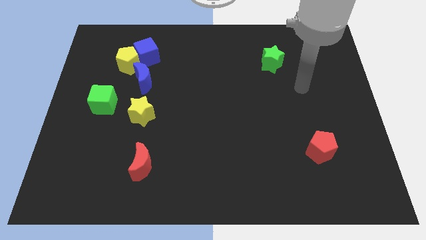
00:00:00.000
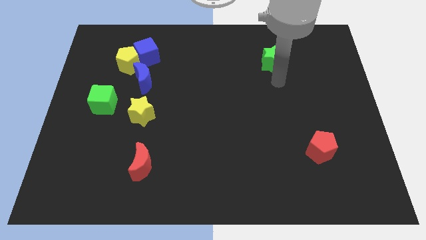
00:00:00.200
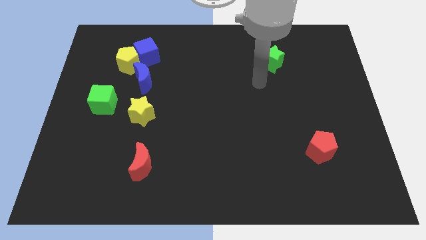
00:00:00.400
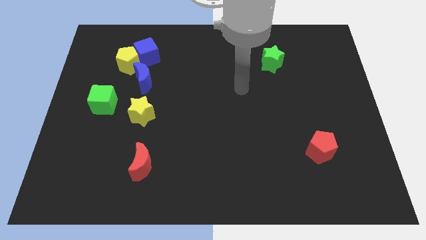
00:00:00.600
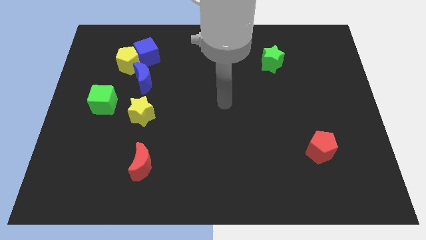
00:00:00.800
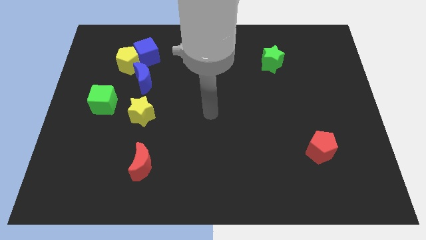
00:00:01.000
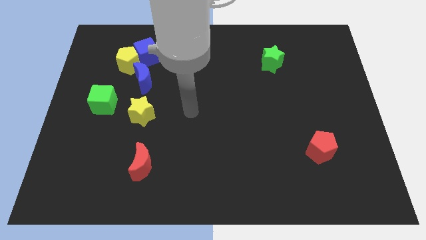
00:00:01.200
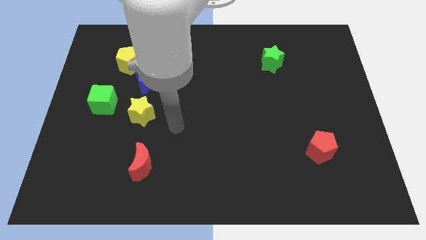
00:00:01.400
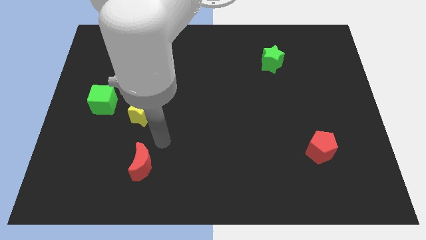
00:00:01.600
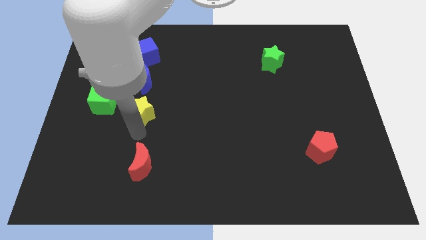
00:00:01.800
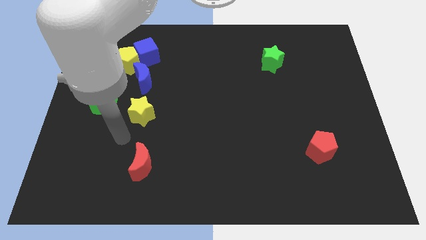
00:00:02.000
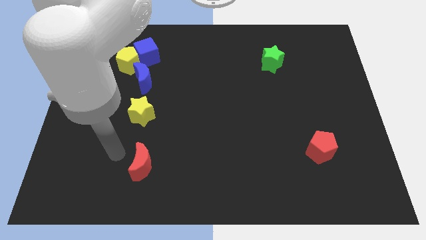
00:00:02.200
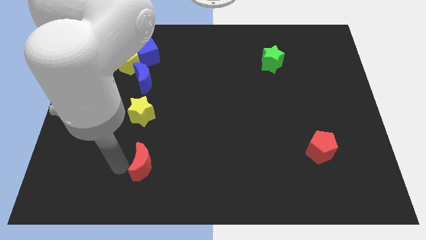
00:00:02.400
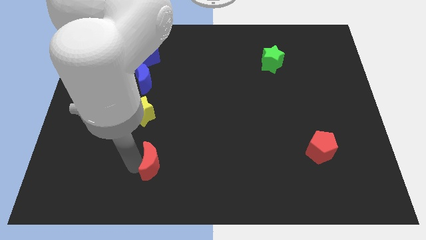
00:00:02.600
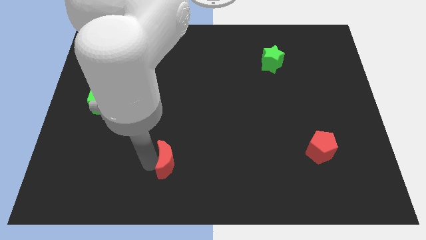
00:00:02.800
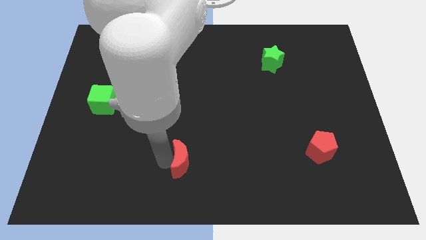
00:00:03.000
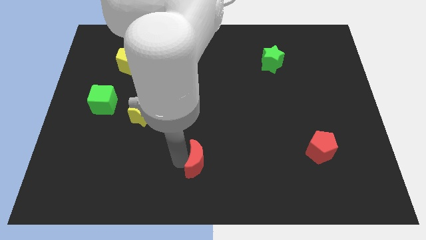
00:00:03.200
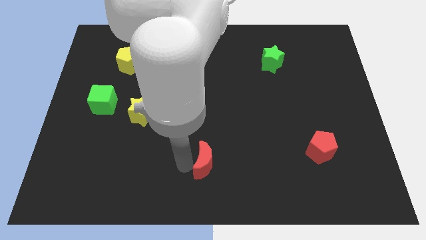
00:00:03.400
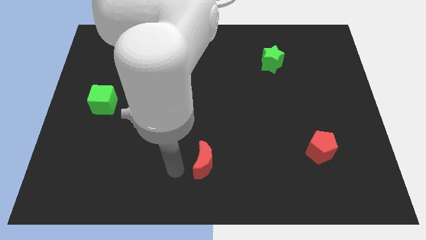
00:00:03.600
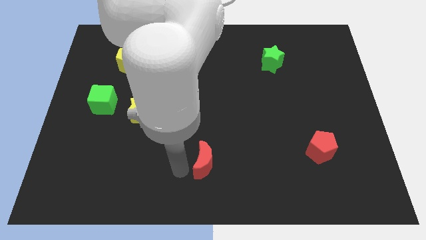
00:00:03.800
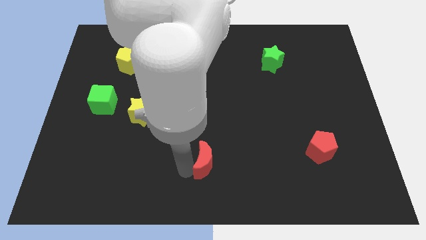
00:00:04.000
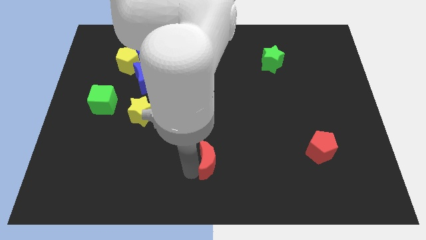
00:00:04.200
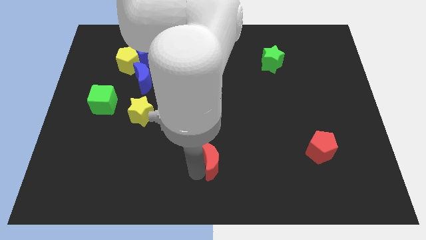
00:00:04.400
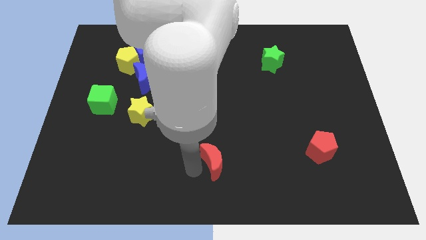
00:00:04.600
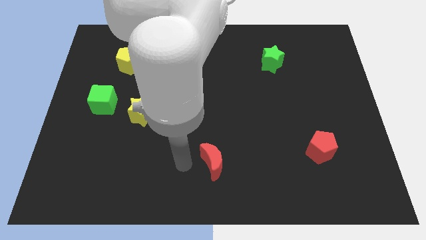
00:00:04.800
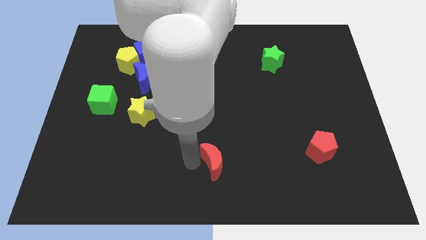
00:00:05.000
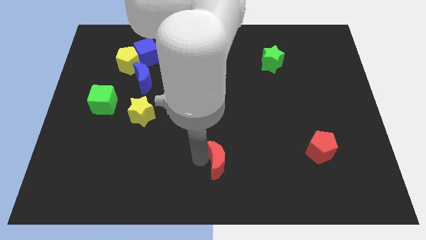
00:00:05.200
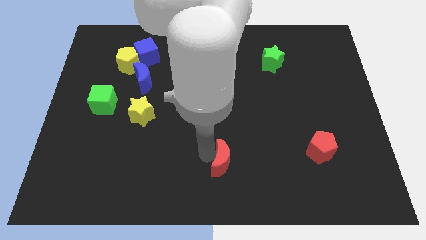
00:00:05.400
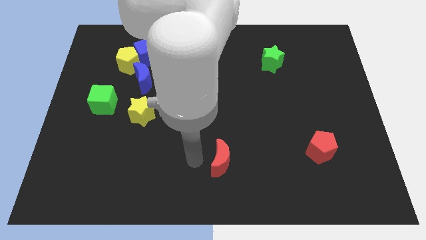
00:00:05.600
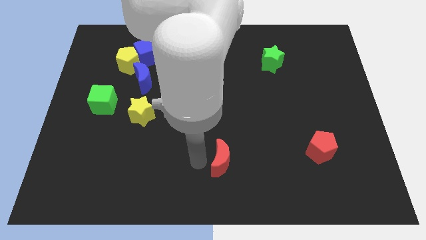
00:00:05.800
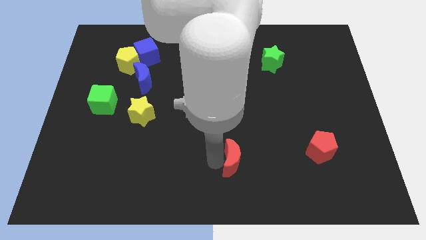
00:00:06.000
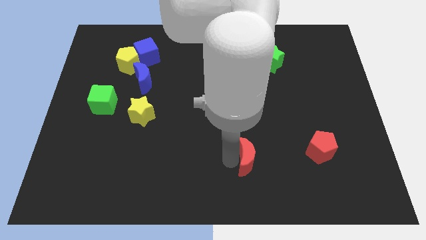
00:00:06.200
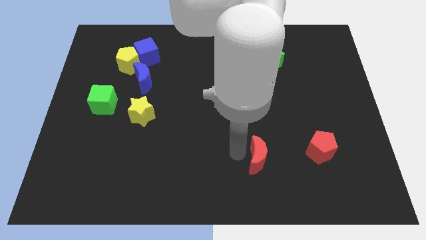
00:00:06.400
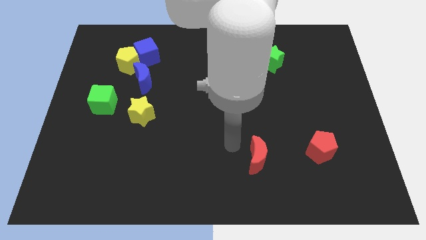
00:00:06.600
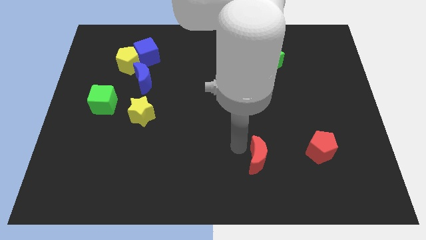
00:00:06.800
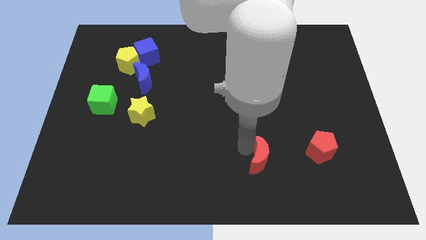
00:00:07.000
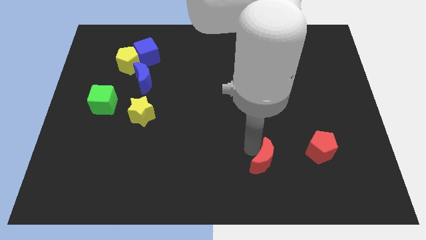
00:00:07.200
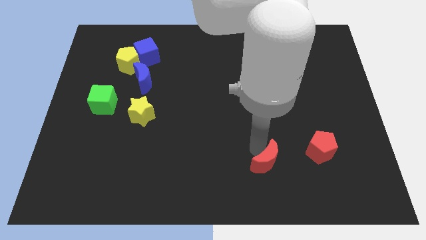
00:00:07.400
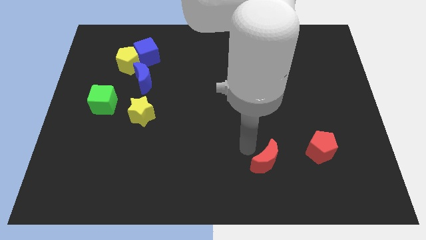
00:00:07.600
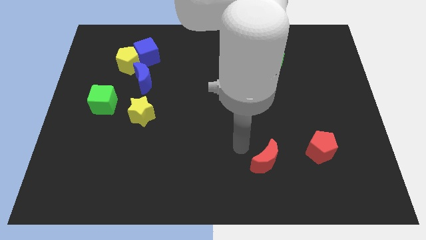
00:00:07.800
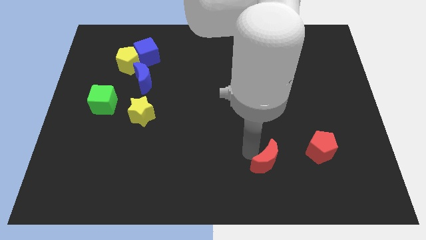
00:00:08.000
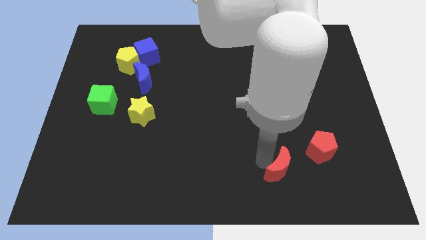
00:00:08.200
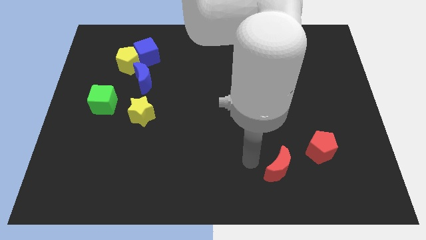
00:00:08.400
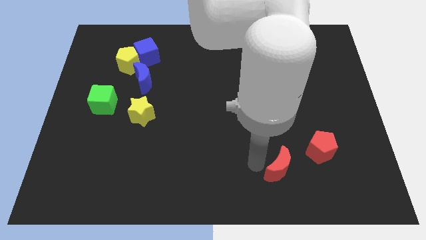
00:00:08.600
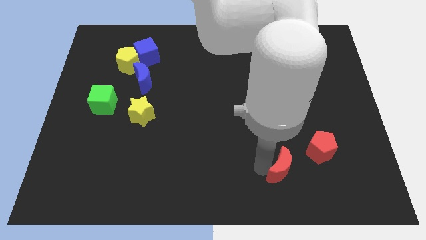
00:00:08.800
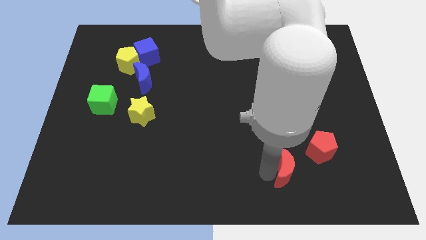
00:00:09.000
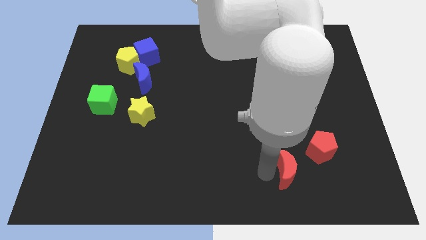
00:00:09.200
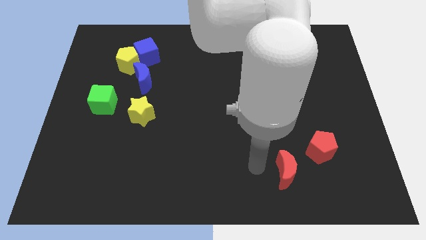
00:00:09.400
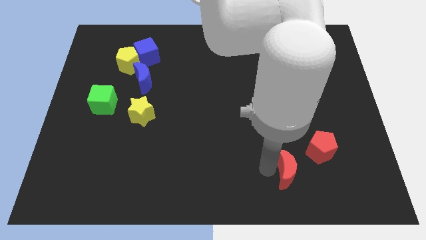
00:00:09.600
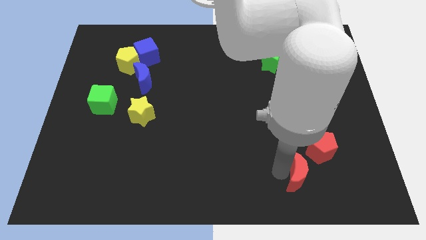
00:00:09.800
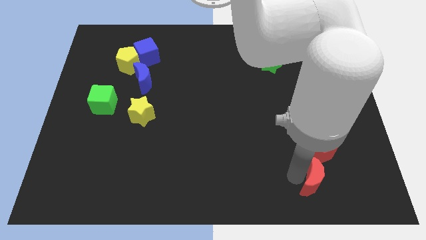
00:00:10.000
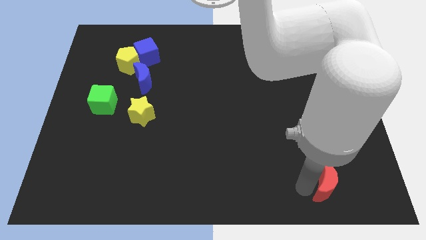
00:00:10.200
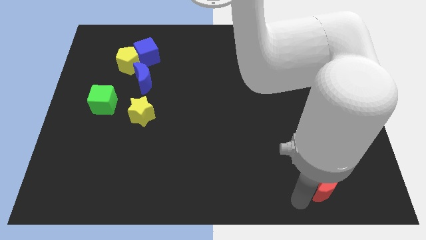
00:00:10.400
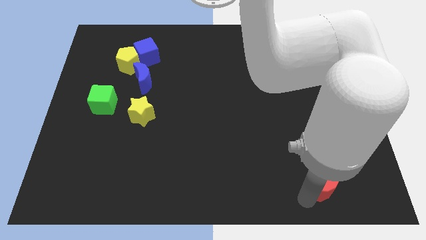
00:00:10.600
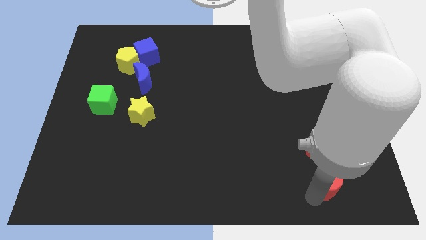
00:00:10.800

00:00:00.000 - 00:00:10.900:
slide the red moon to the bottom right side of the red pentagon

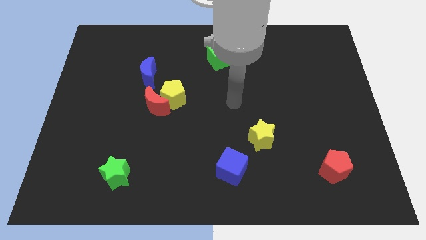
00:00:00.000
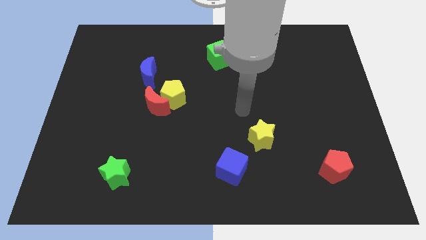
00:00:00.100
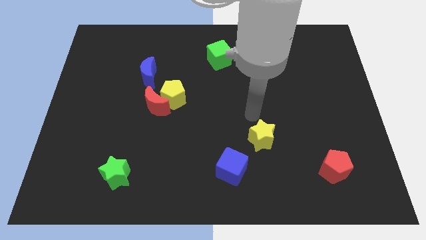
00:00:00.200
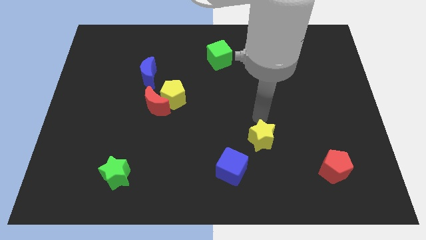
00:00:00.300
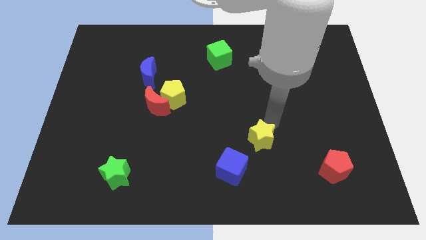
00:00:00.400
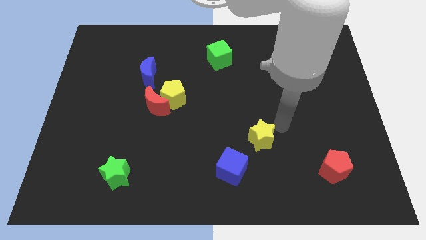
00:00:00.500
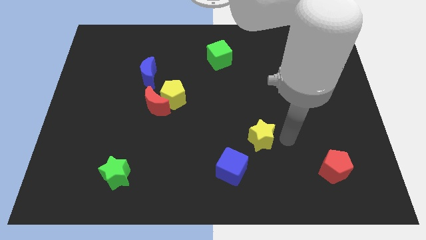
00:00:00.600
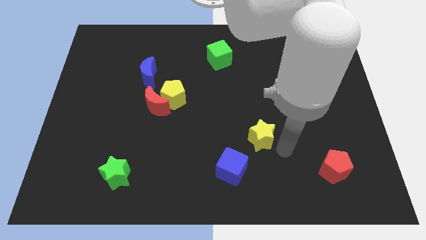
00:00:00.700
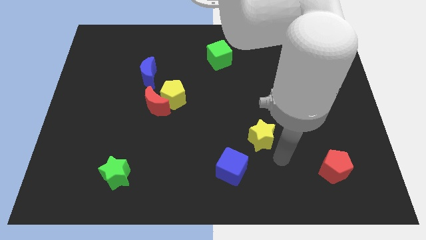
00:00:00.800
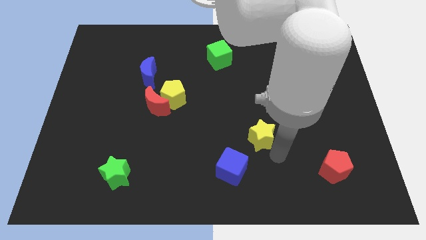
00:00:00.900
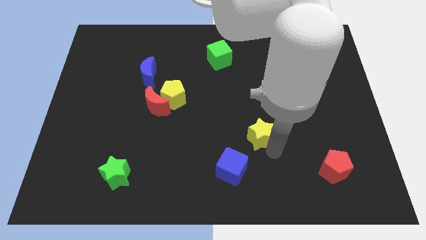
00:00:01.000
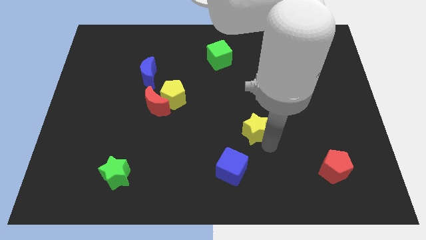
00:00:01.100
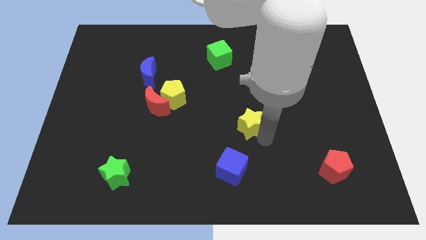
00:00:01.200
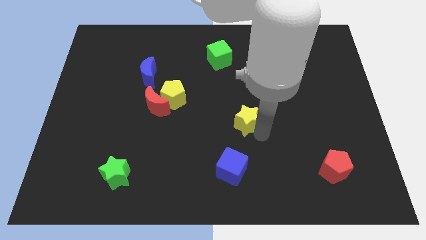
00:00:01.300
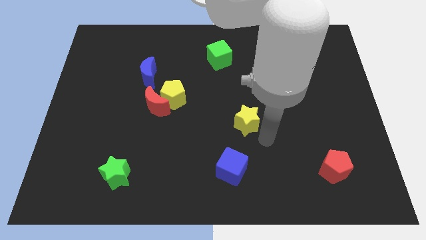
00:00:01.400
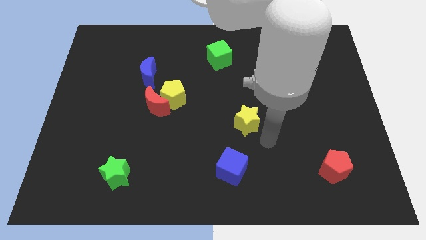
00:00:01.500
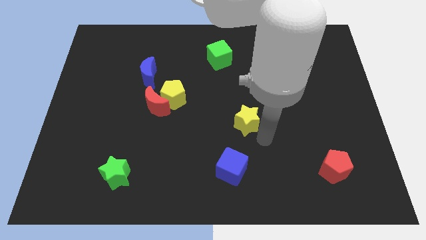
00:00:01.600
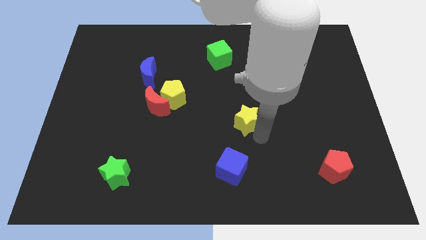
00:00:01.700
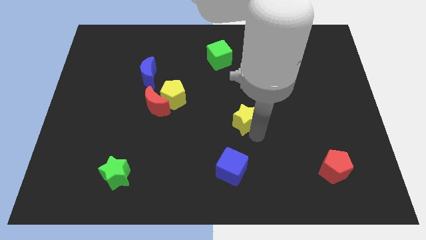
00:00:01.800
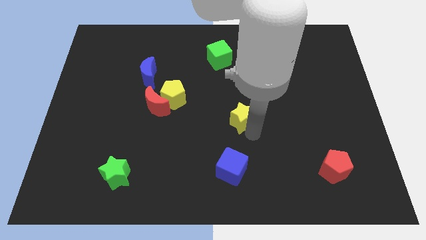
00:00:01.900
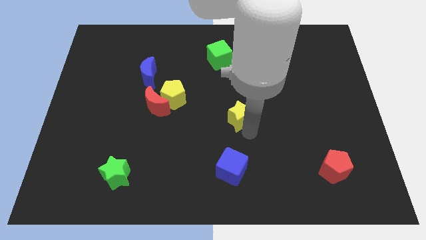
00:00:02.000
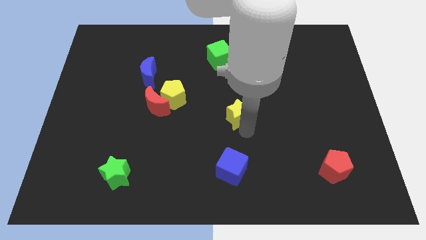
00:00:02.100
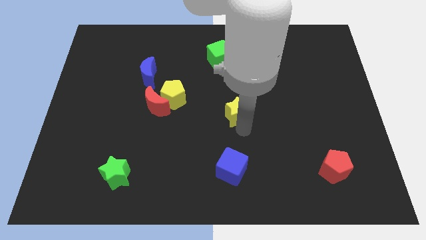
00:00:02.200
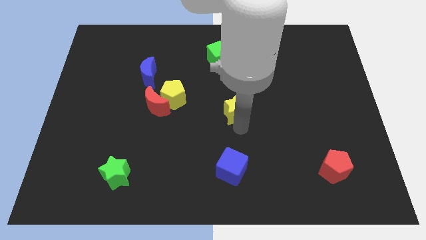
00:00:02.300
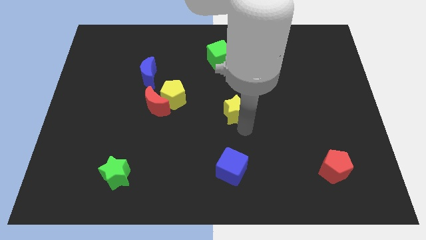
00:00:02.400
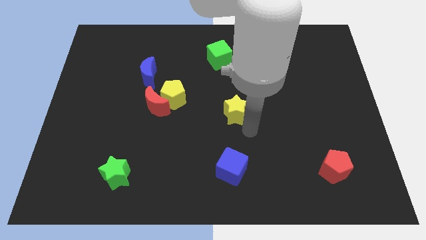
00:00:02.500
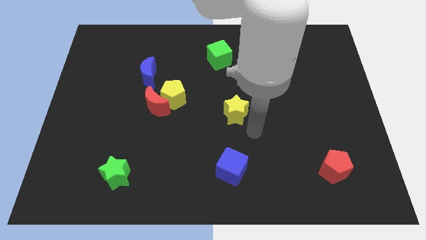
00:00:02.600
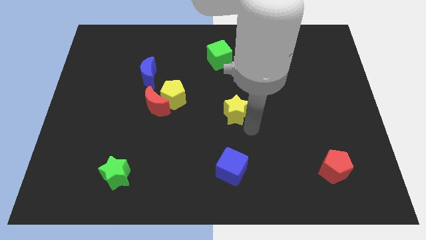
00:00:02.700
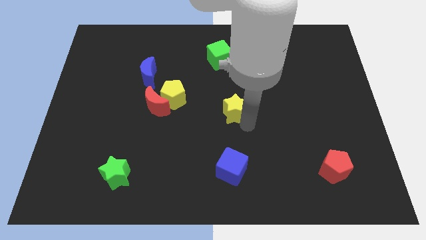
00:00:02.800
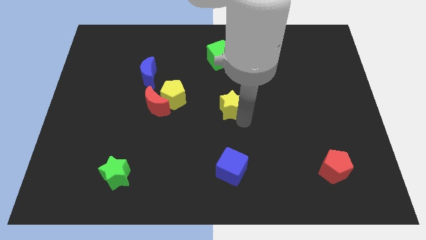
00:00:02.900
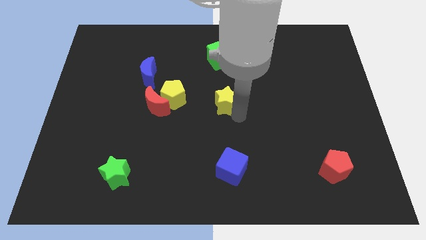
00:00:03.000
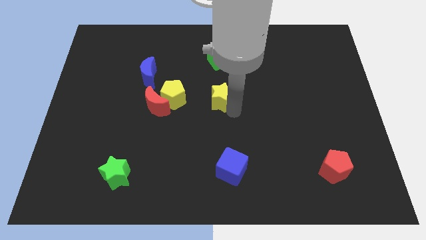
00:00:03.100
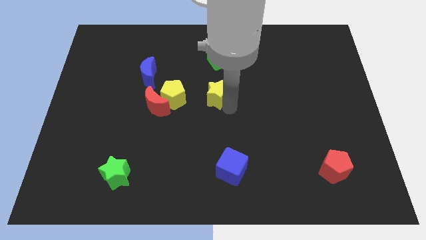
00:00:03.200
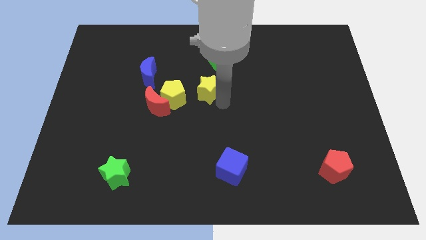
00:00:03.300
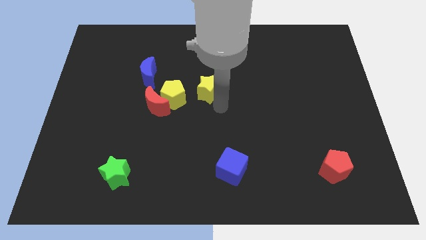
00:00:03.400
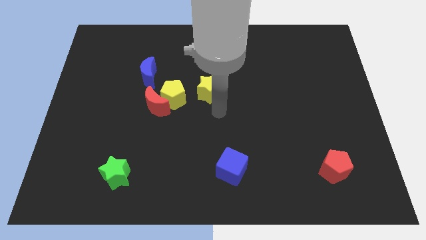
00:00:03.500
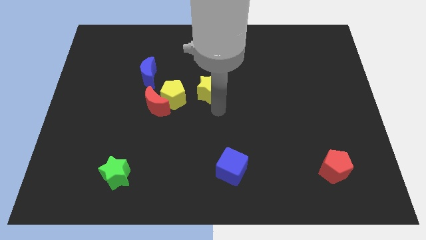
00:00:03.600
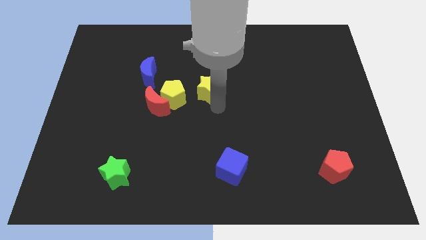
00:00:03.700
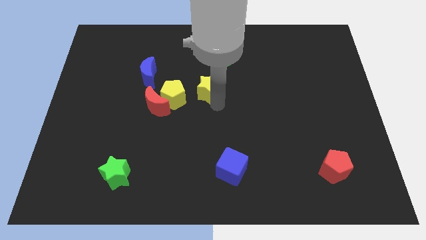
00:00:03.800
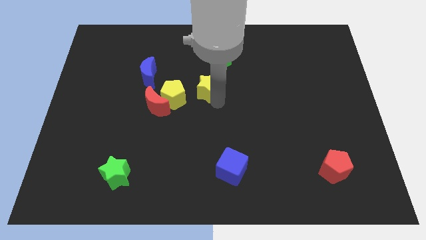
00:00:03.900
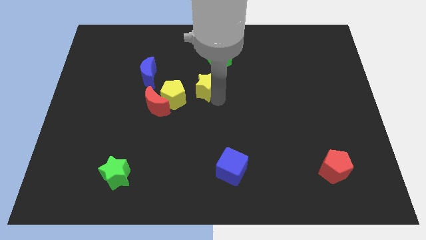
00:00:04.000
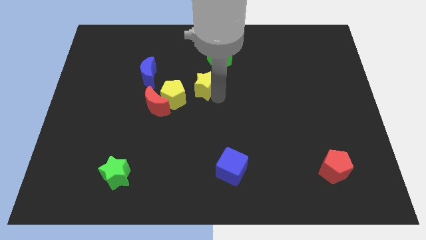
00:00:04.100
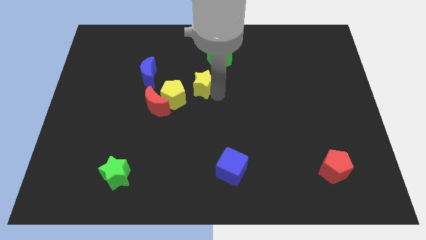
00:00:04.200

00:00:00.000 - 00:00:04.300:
slide the yellow star to the bottom left of the green cube
